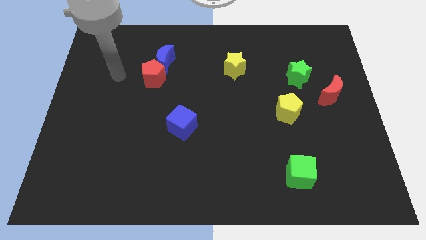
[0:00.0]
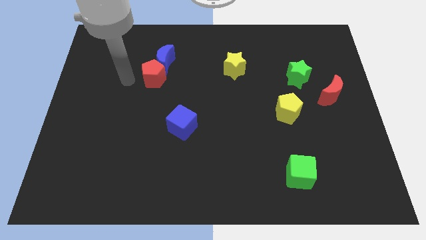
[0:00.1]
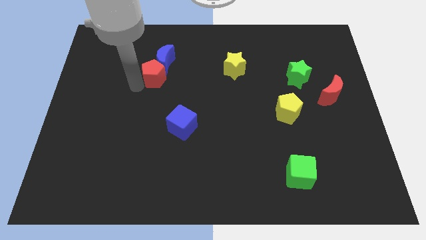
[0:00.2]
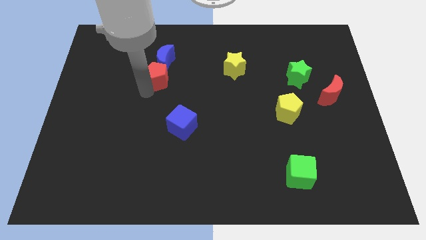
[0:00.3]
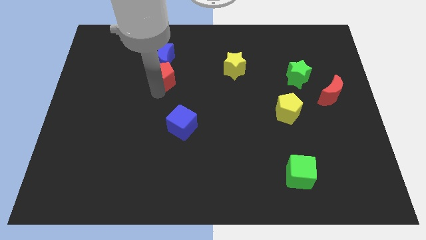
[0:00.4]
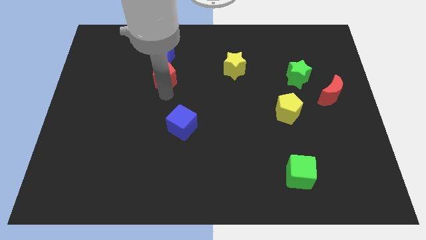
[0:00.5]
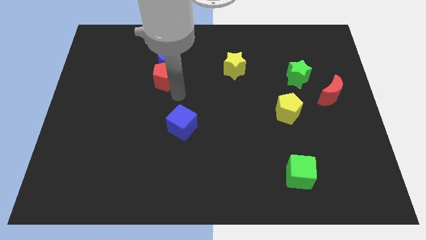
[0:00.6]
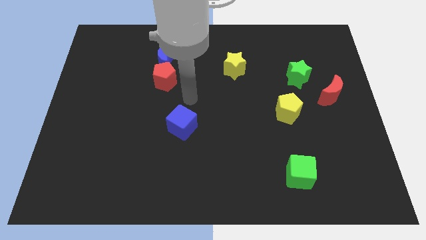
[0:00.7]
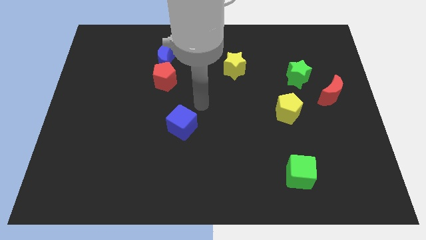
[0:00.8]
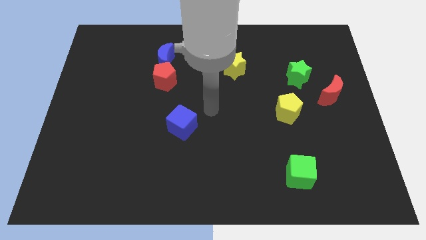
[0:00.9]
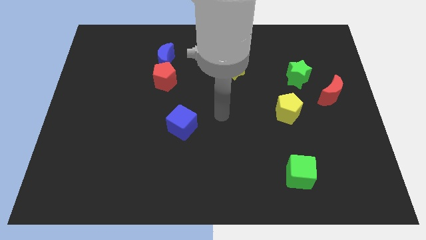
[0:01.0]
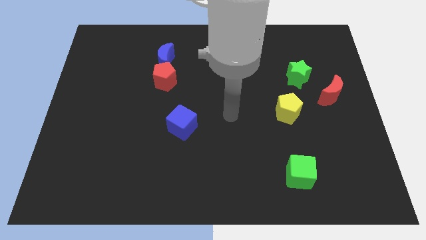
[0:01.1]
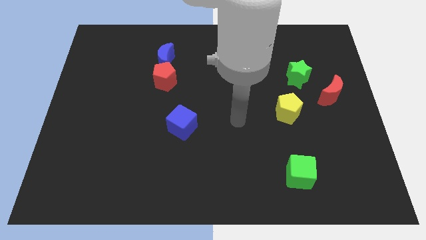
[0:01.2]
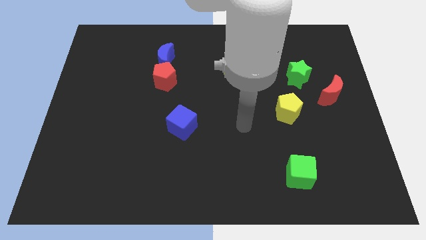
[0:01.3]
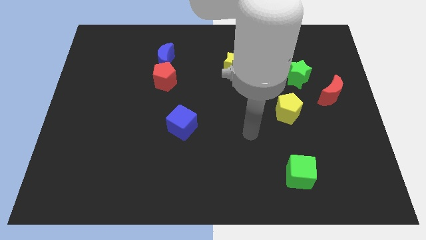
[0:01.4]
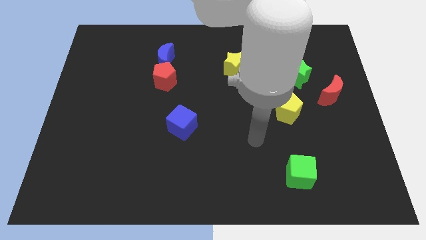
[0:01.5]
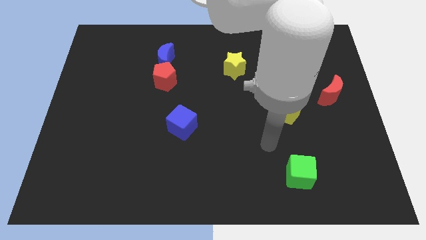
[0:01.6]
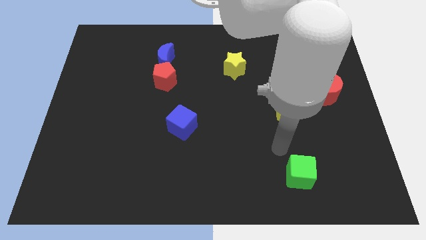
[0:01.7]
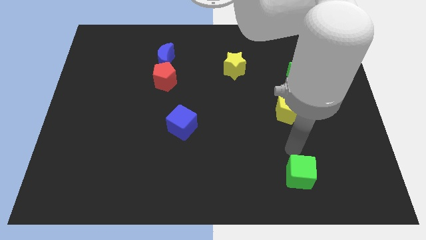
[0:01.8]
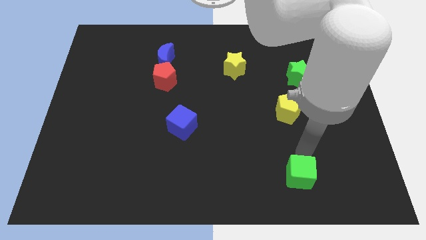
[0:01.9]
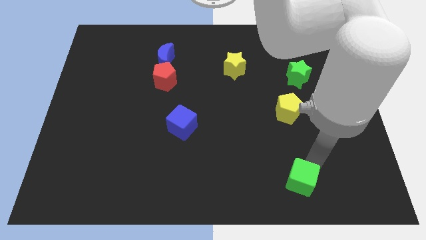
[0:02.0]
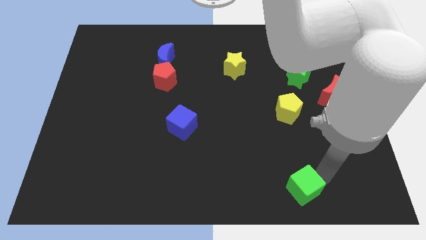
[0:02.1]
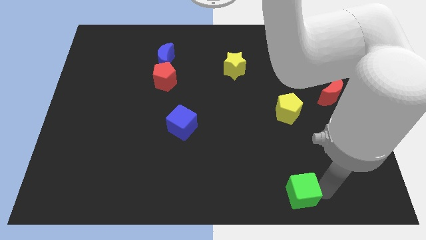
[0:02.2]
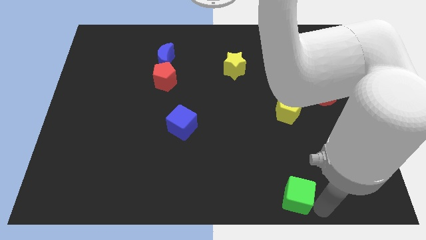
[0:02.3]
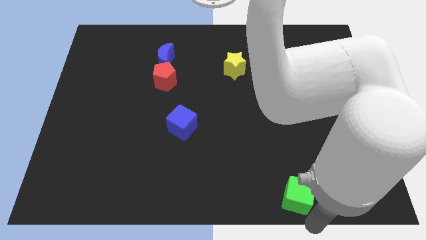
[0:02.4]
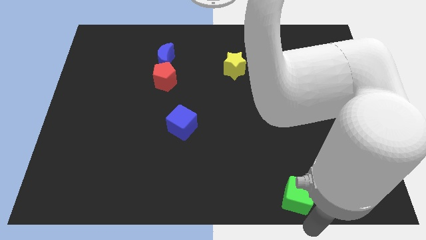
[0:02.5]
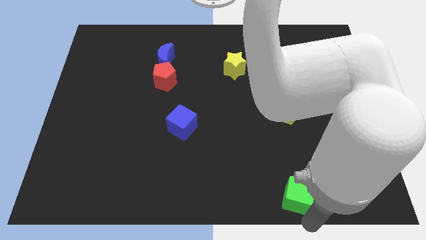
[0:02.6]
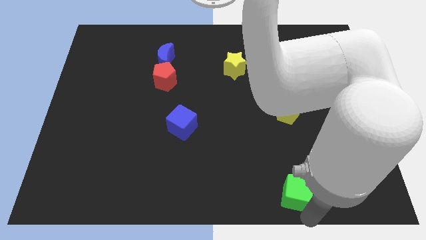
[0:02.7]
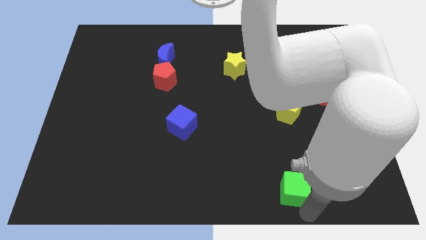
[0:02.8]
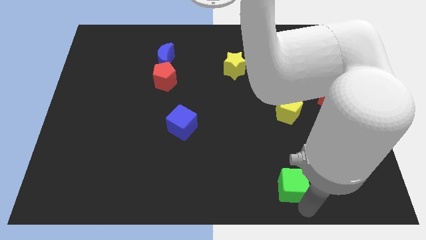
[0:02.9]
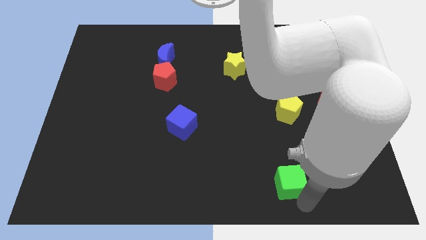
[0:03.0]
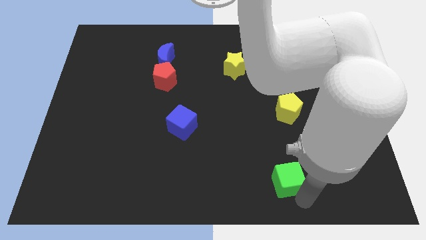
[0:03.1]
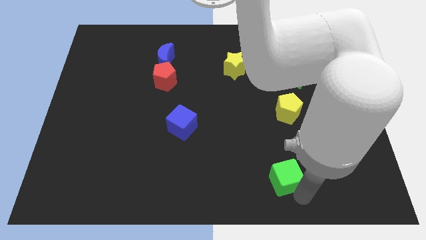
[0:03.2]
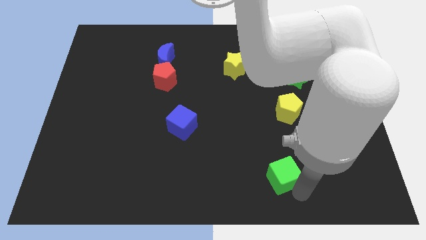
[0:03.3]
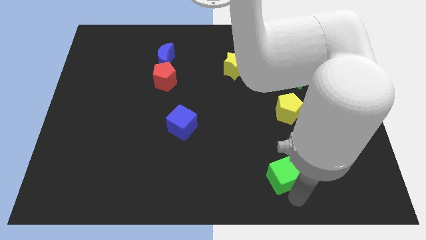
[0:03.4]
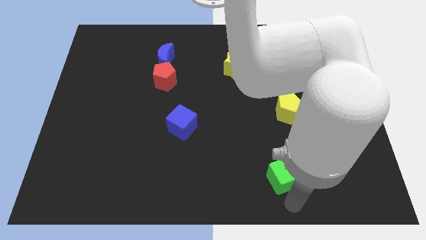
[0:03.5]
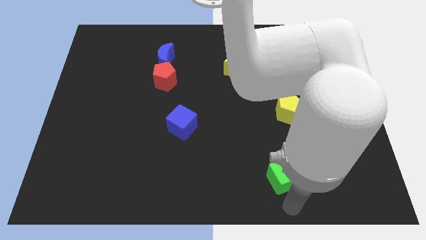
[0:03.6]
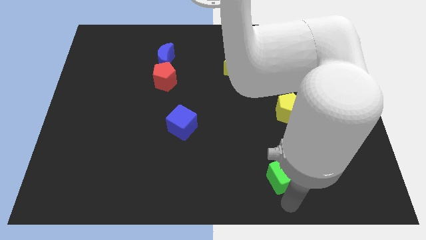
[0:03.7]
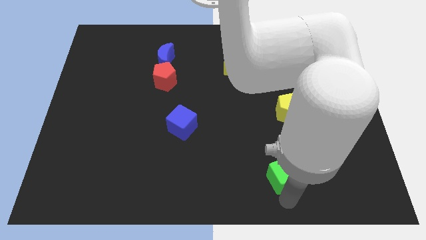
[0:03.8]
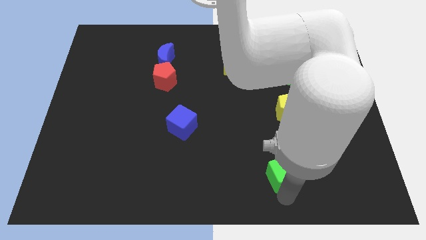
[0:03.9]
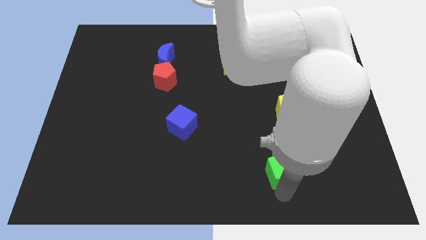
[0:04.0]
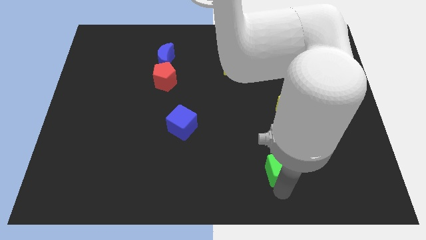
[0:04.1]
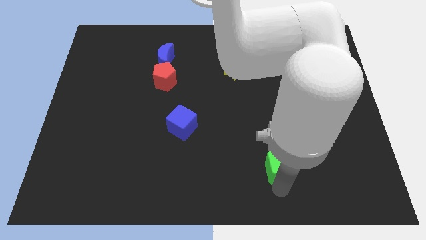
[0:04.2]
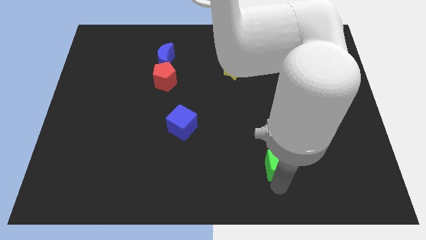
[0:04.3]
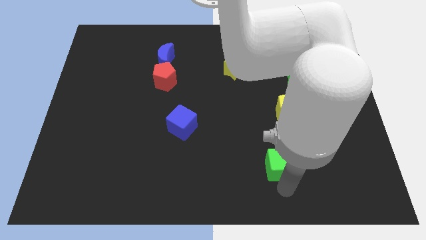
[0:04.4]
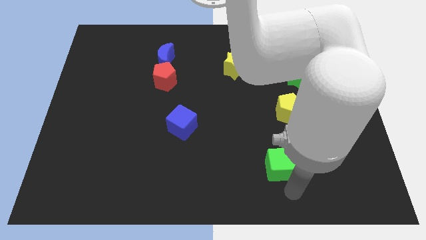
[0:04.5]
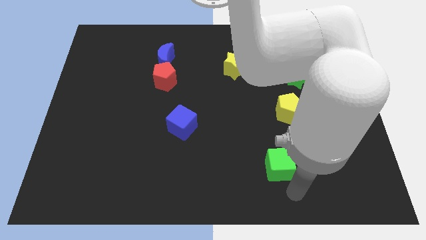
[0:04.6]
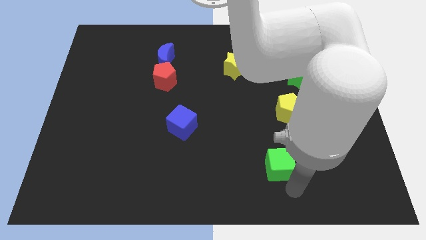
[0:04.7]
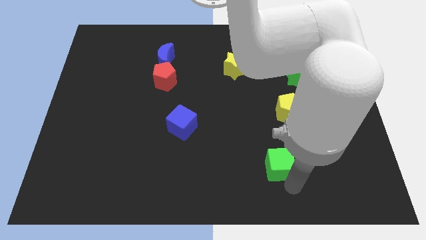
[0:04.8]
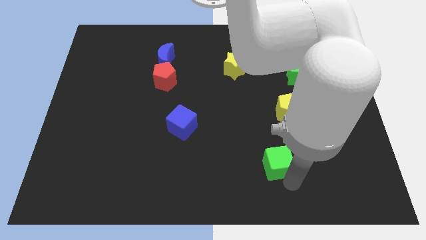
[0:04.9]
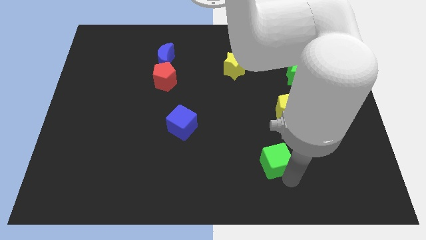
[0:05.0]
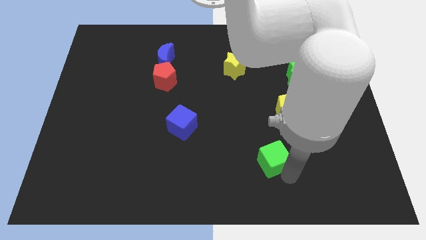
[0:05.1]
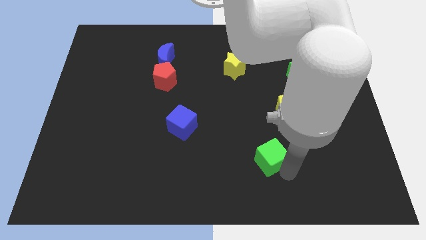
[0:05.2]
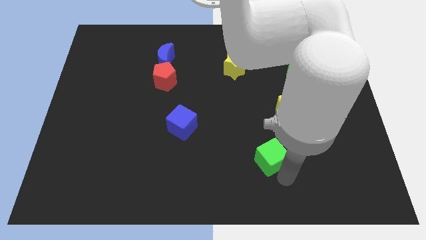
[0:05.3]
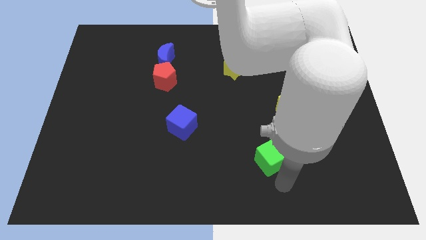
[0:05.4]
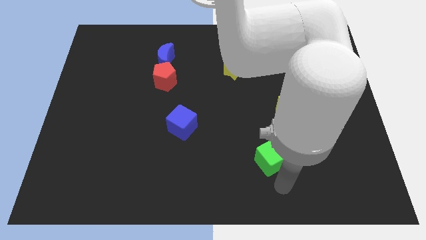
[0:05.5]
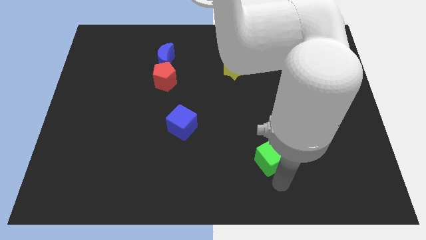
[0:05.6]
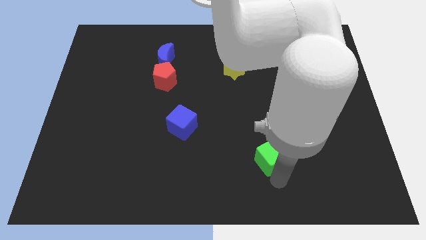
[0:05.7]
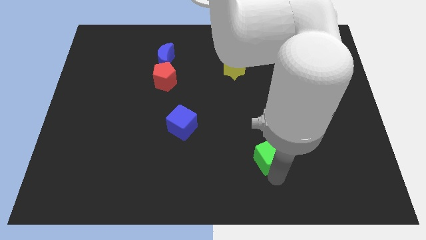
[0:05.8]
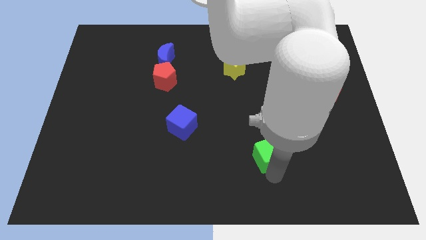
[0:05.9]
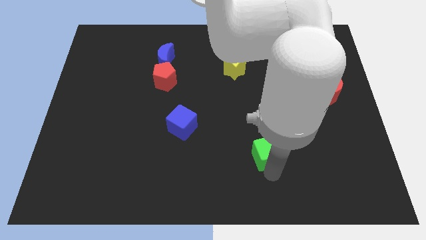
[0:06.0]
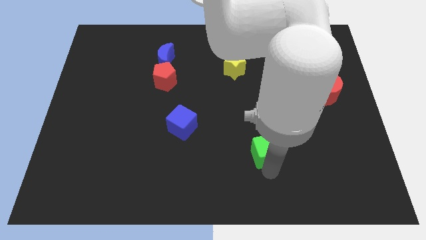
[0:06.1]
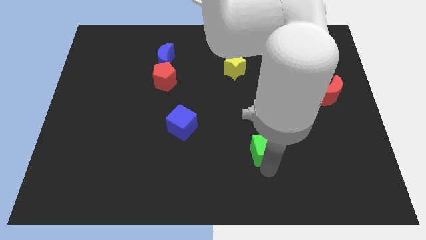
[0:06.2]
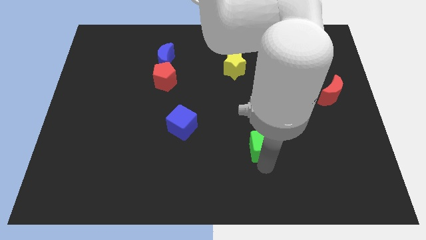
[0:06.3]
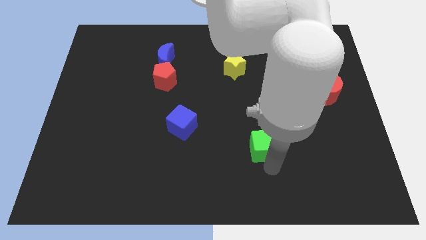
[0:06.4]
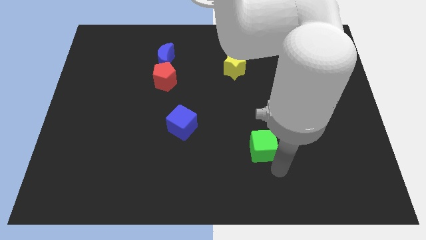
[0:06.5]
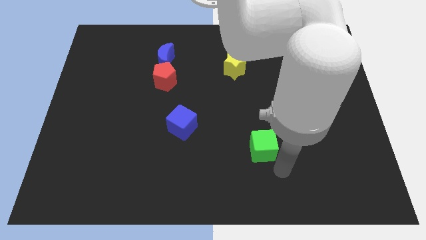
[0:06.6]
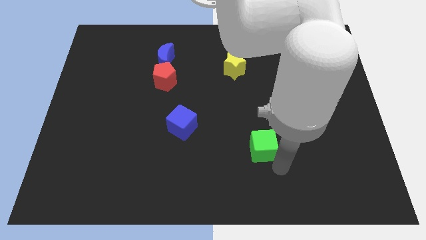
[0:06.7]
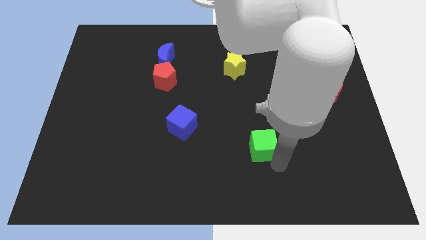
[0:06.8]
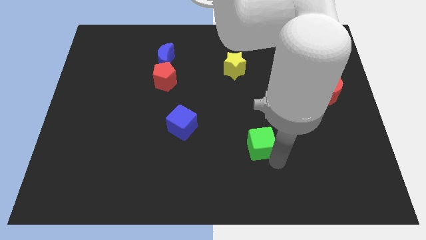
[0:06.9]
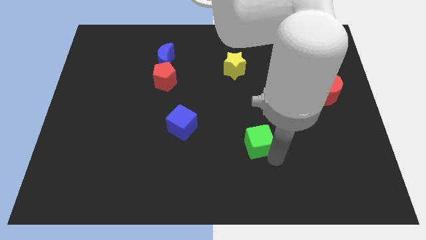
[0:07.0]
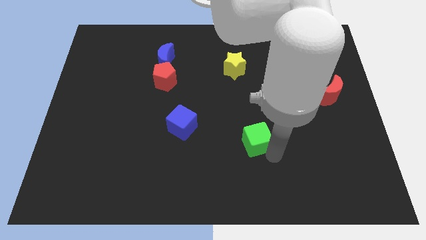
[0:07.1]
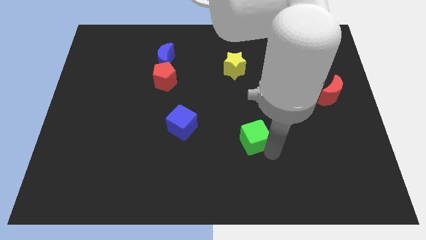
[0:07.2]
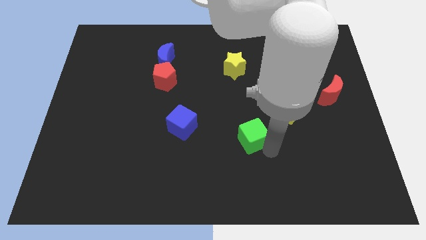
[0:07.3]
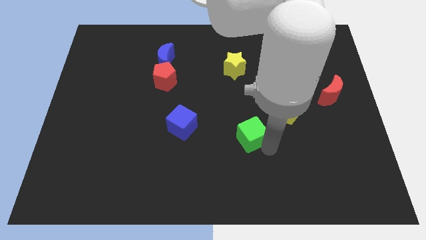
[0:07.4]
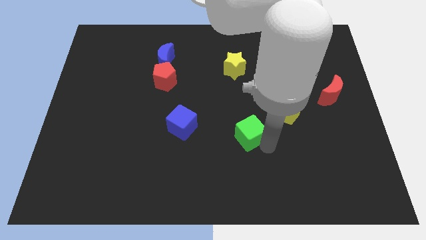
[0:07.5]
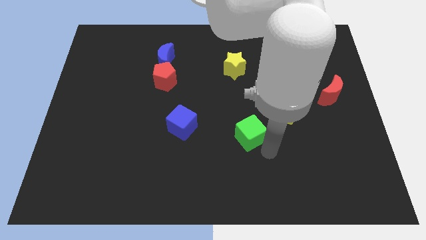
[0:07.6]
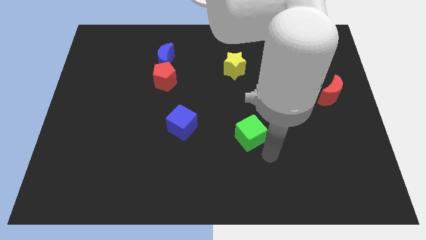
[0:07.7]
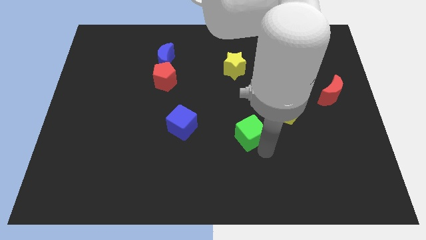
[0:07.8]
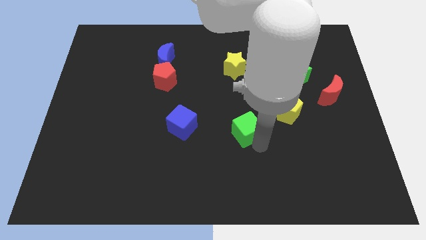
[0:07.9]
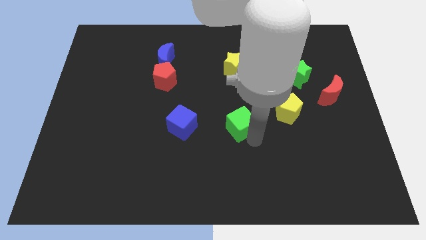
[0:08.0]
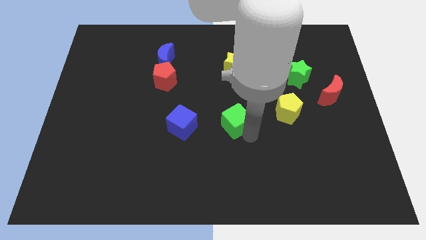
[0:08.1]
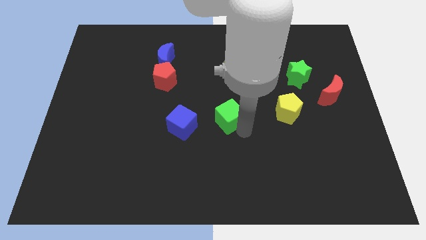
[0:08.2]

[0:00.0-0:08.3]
slide the green cube upwards and left diagonally
